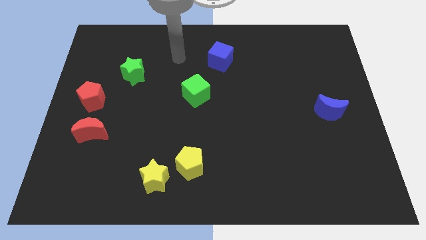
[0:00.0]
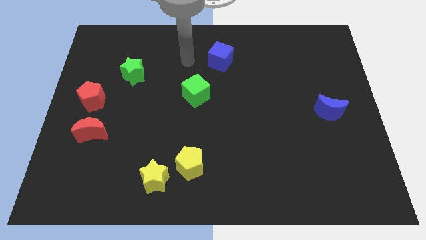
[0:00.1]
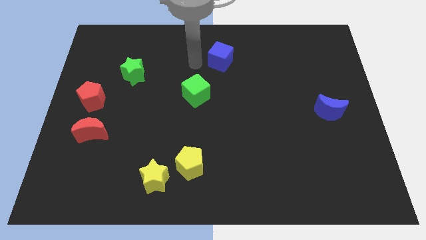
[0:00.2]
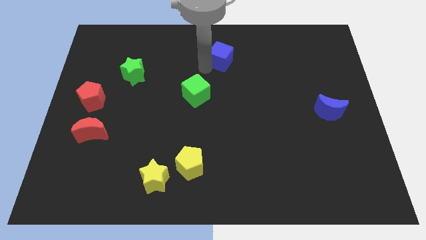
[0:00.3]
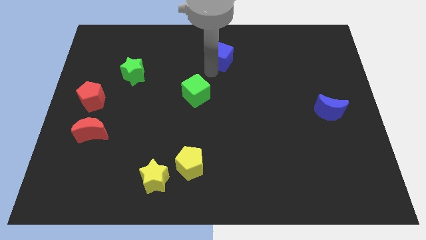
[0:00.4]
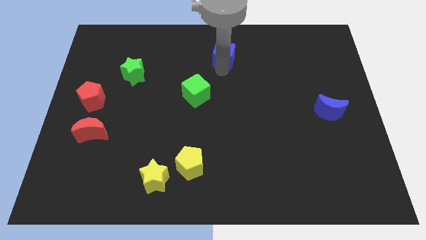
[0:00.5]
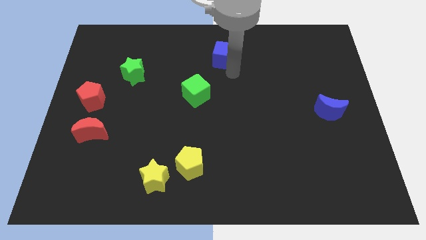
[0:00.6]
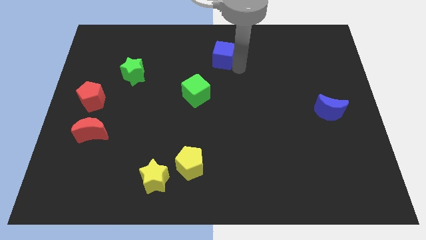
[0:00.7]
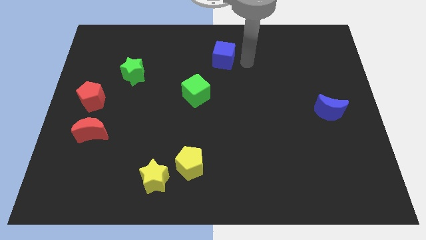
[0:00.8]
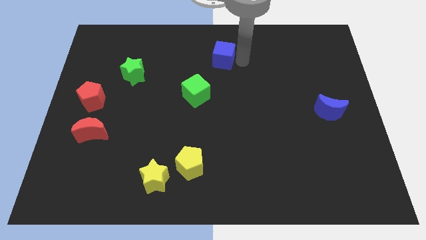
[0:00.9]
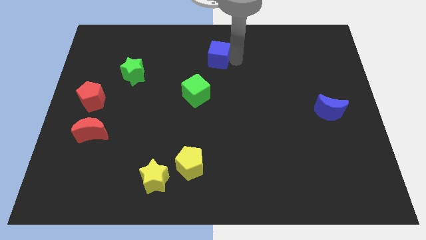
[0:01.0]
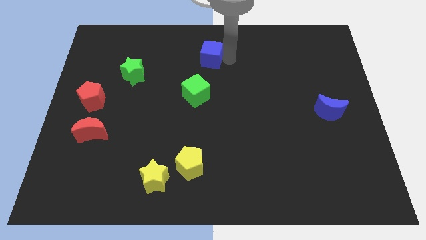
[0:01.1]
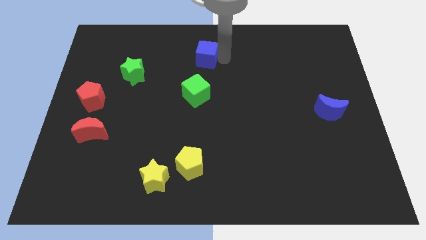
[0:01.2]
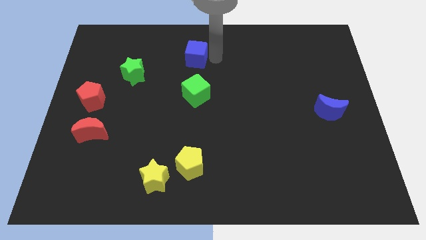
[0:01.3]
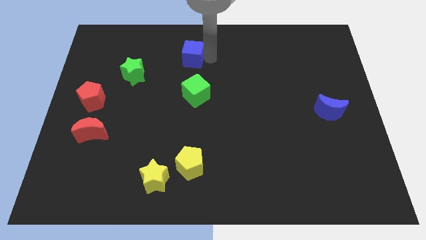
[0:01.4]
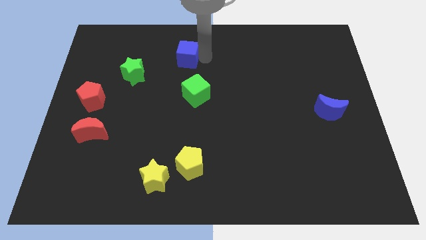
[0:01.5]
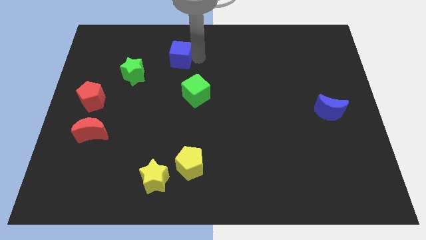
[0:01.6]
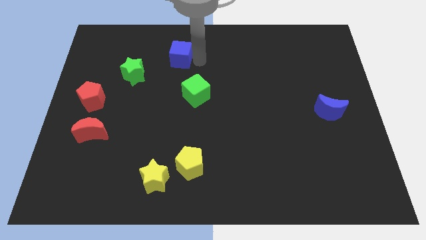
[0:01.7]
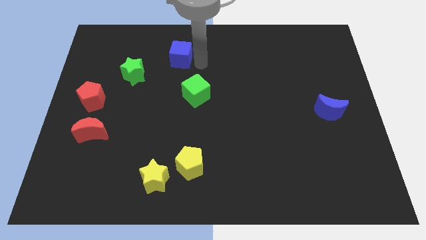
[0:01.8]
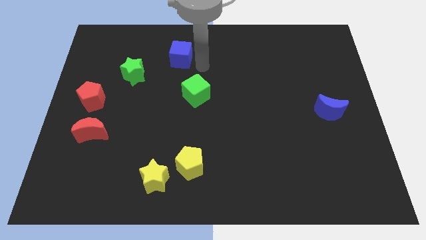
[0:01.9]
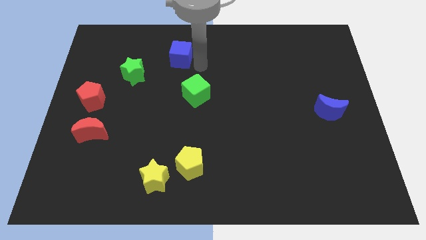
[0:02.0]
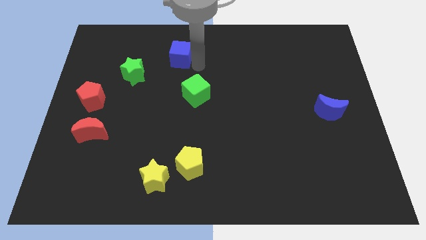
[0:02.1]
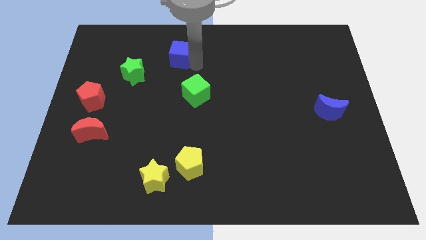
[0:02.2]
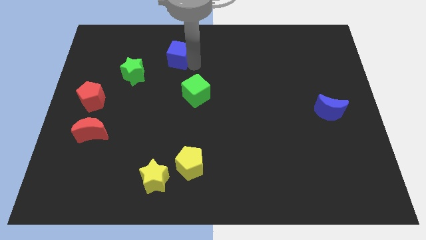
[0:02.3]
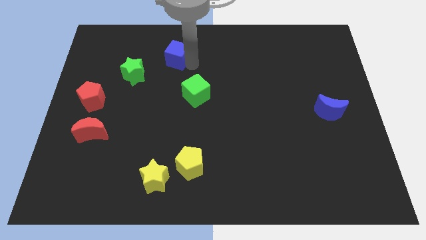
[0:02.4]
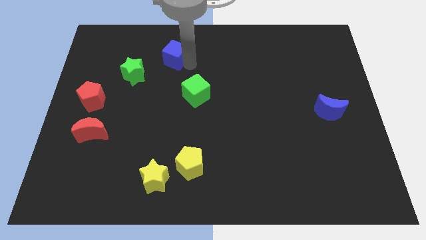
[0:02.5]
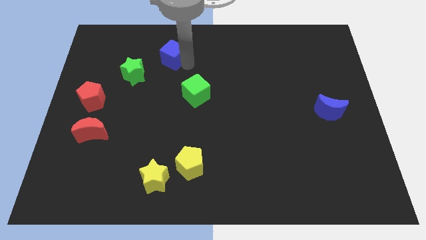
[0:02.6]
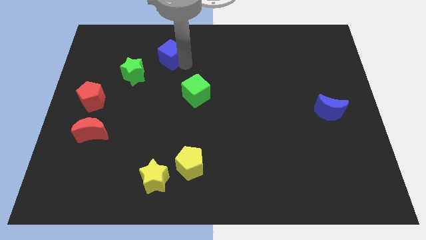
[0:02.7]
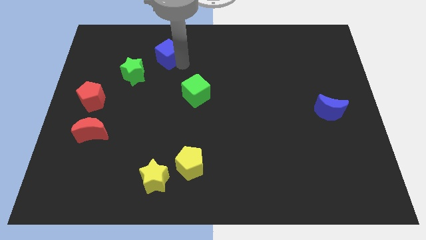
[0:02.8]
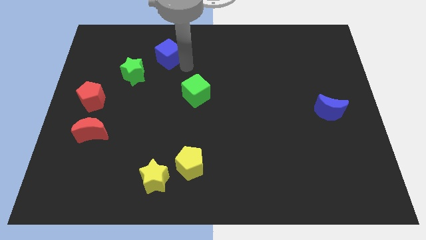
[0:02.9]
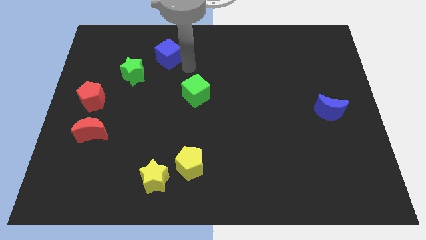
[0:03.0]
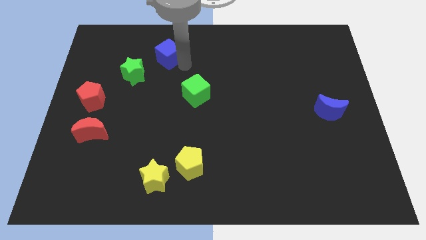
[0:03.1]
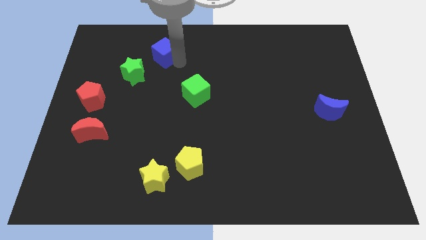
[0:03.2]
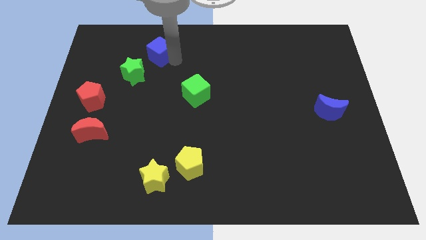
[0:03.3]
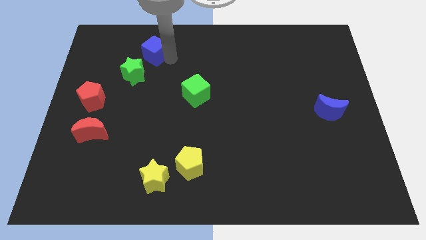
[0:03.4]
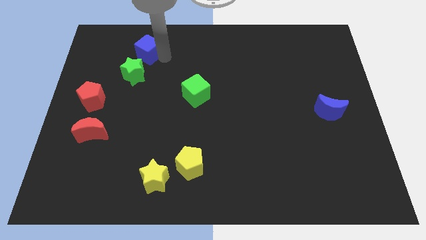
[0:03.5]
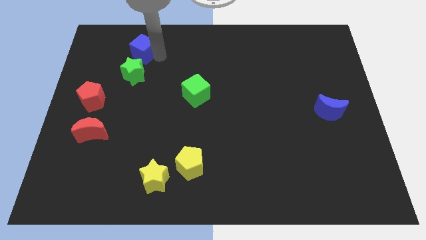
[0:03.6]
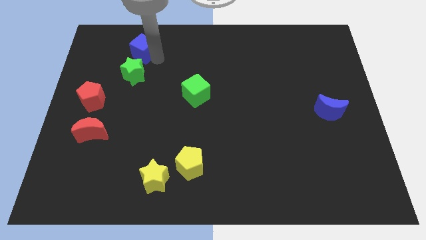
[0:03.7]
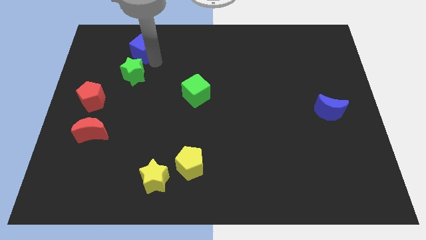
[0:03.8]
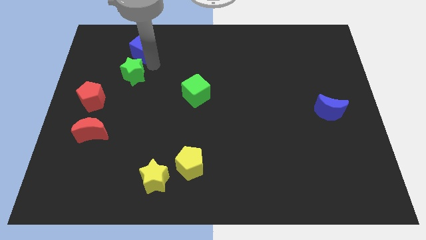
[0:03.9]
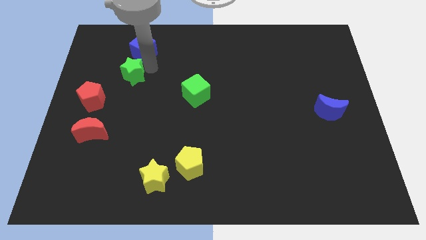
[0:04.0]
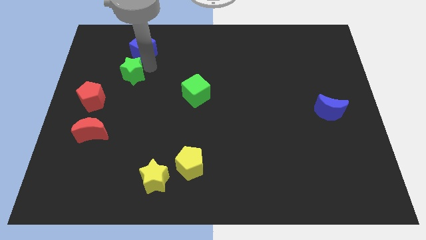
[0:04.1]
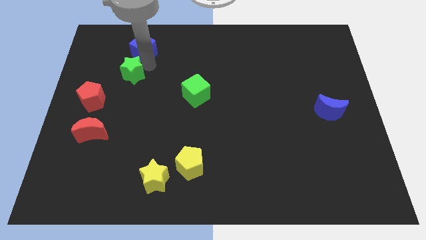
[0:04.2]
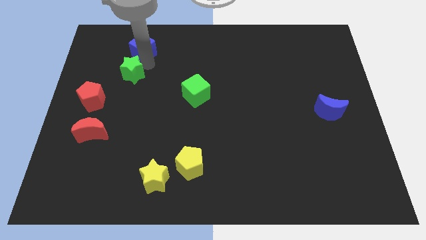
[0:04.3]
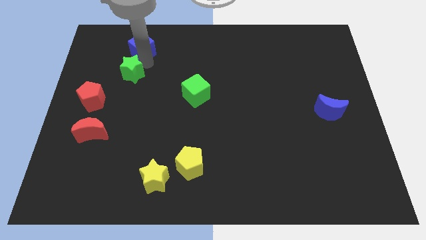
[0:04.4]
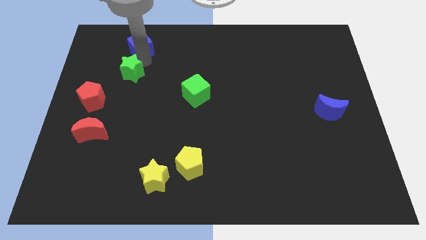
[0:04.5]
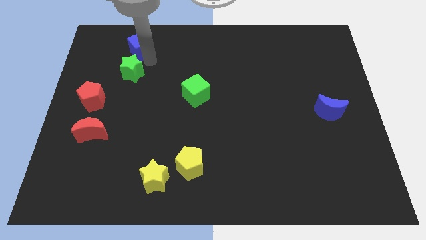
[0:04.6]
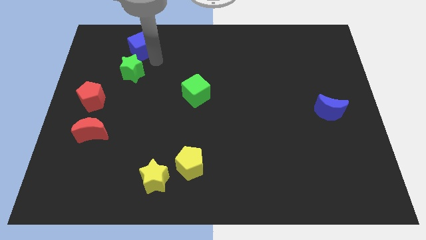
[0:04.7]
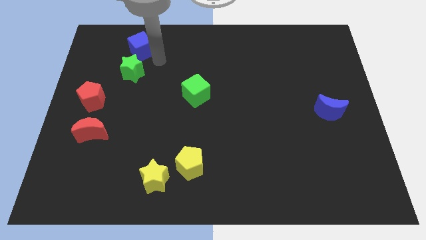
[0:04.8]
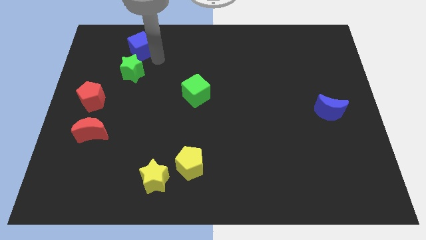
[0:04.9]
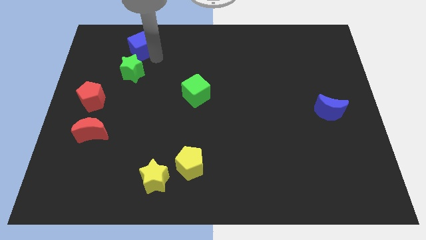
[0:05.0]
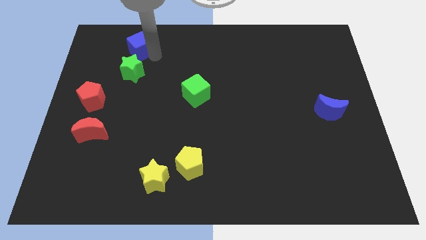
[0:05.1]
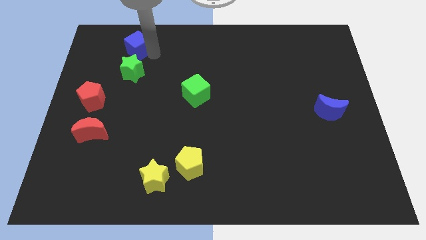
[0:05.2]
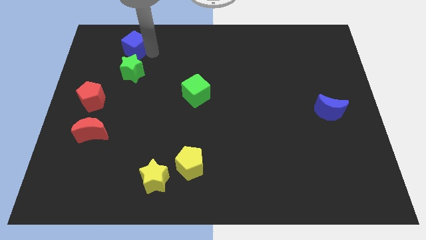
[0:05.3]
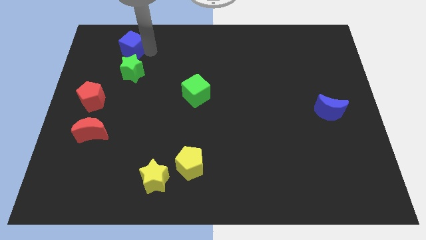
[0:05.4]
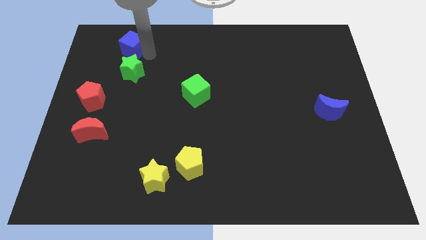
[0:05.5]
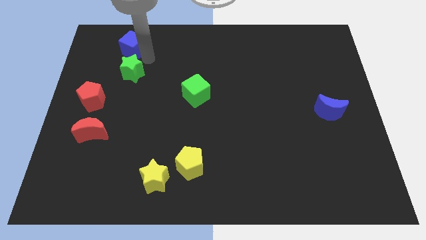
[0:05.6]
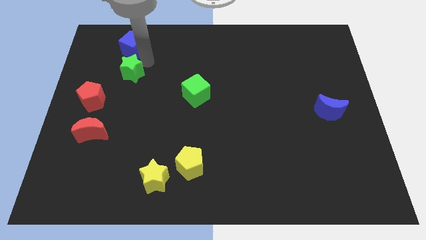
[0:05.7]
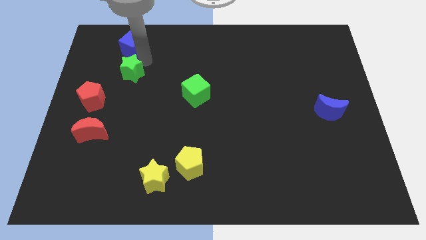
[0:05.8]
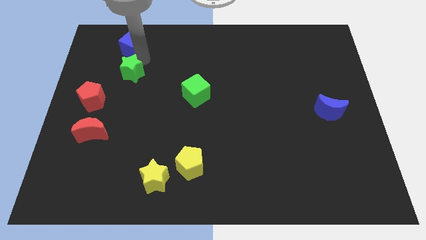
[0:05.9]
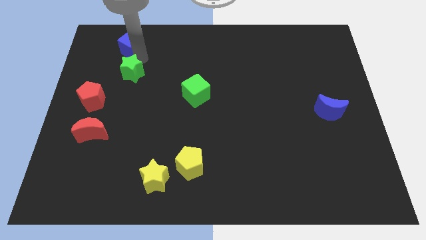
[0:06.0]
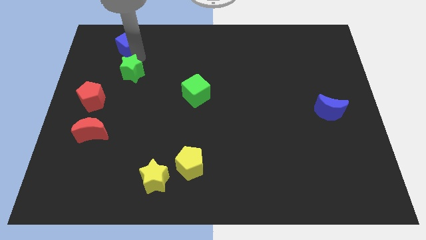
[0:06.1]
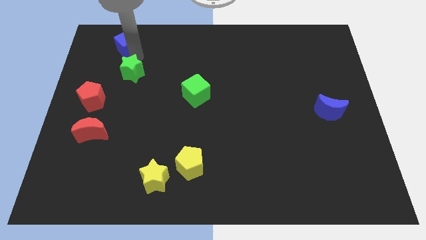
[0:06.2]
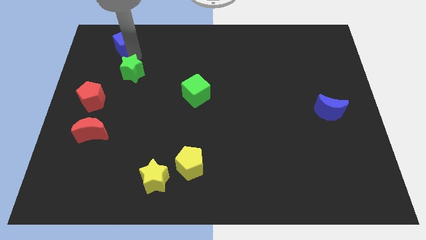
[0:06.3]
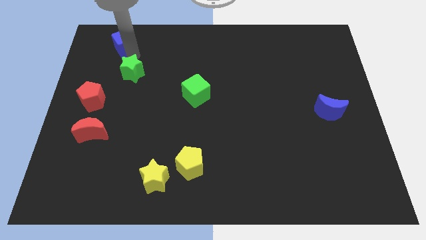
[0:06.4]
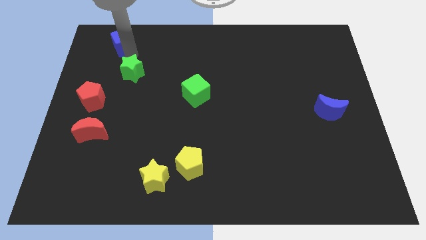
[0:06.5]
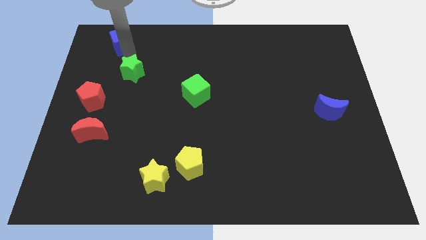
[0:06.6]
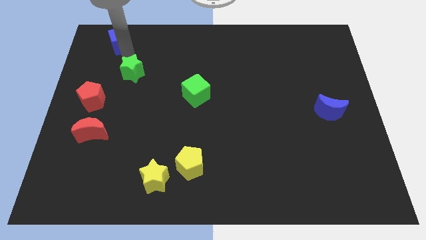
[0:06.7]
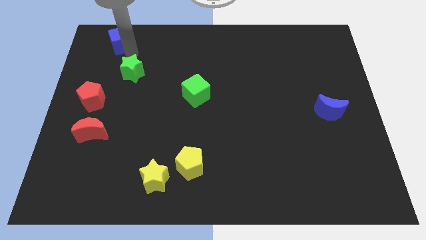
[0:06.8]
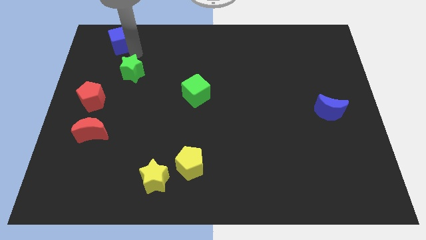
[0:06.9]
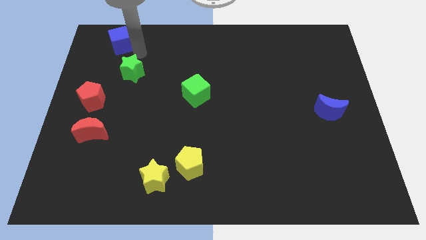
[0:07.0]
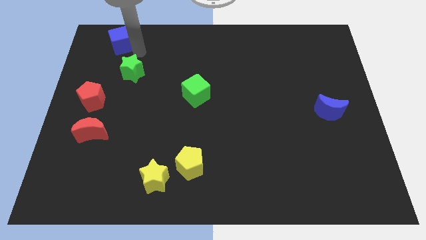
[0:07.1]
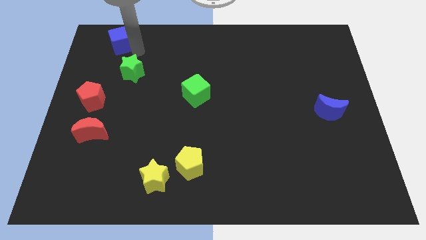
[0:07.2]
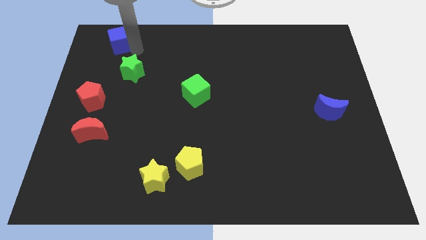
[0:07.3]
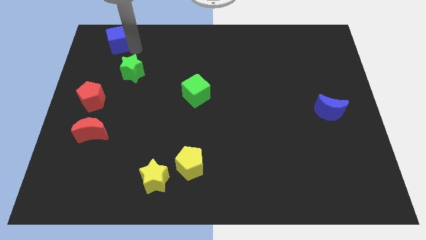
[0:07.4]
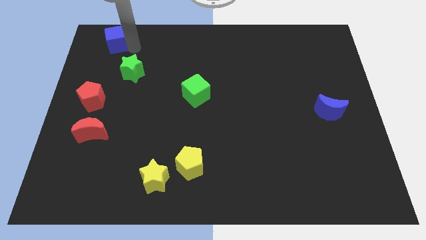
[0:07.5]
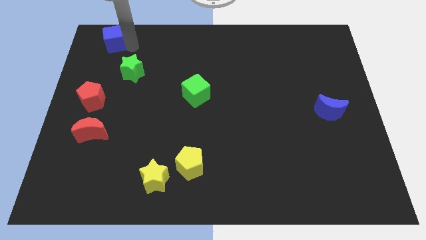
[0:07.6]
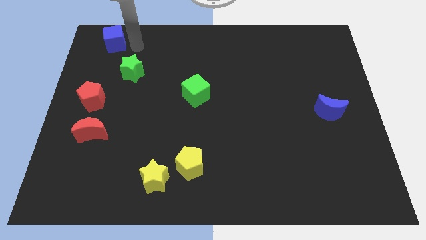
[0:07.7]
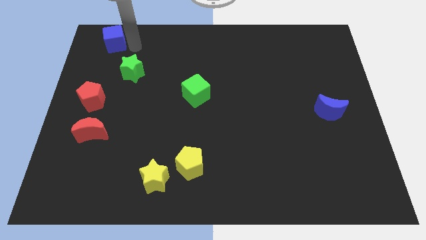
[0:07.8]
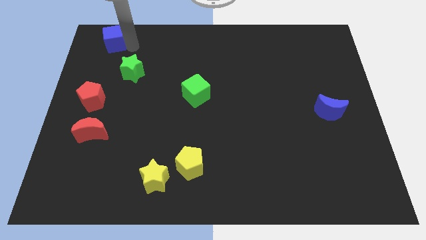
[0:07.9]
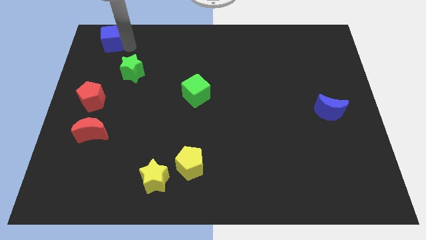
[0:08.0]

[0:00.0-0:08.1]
slide the blue cube to the top left of the board
